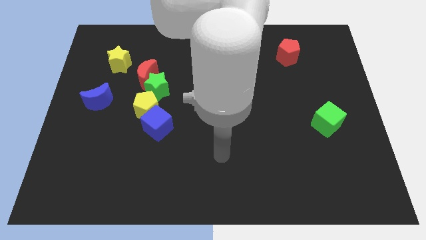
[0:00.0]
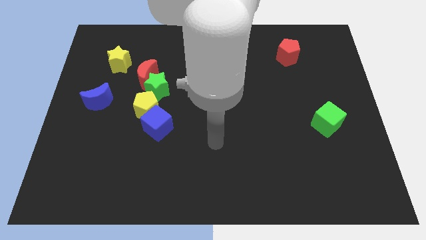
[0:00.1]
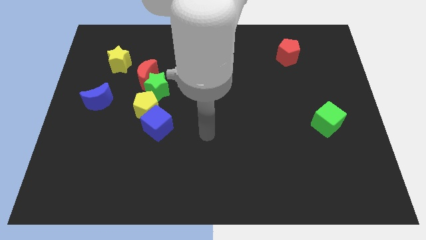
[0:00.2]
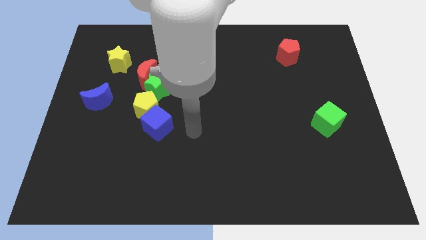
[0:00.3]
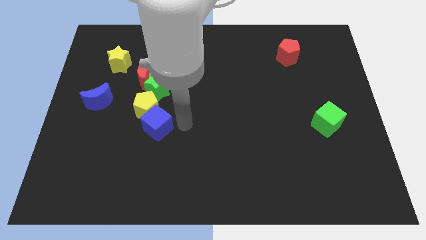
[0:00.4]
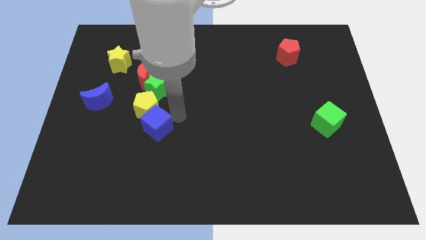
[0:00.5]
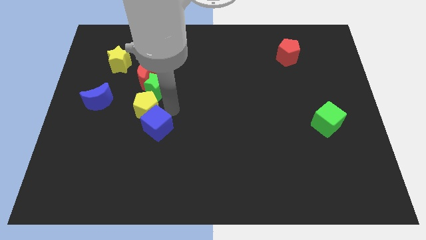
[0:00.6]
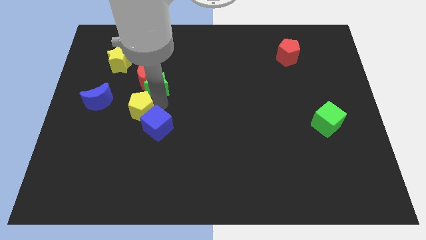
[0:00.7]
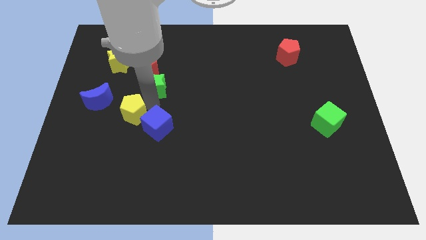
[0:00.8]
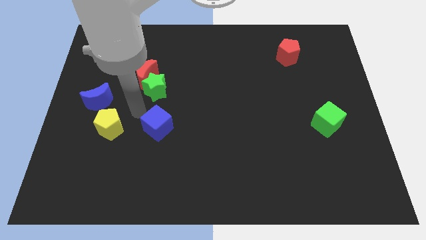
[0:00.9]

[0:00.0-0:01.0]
move the blue cube away from the yellow pentagon

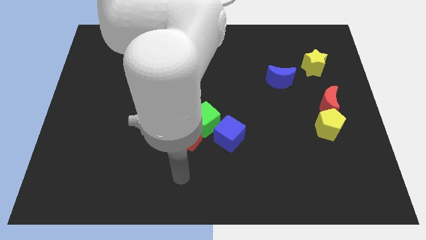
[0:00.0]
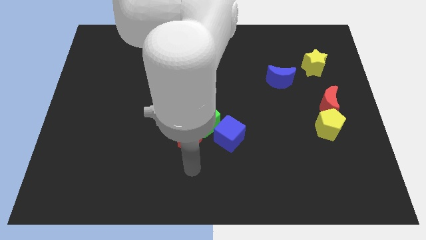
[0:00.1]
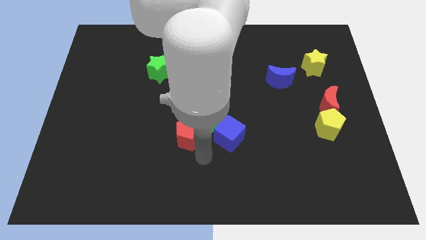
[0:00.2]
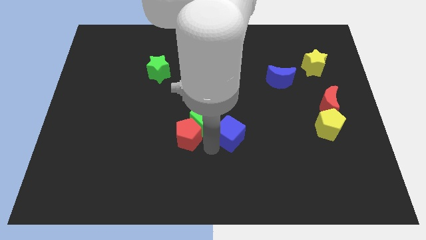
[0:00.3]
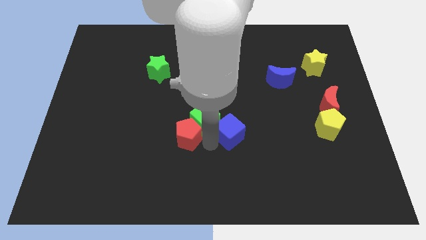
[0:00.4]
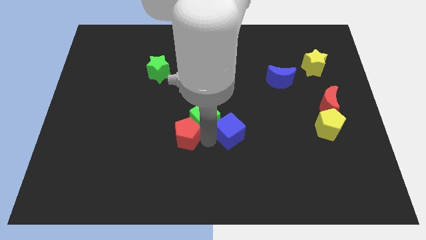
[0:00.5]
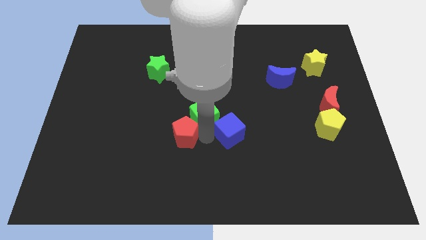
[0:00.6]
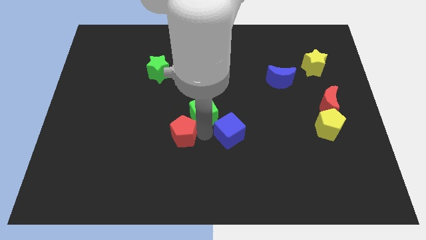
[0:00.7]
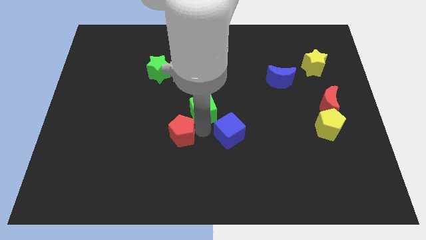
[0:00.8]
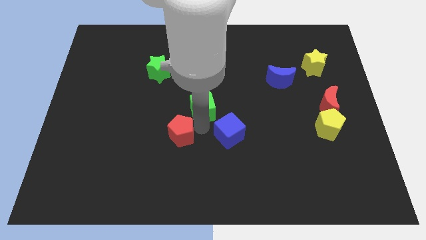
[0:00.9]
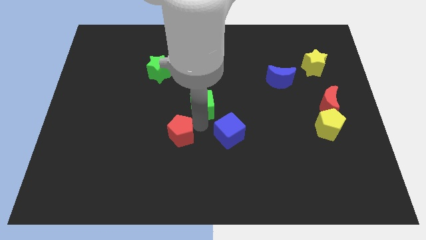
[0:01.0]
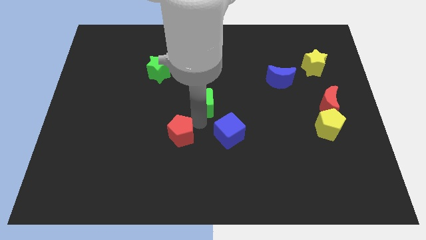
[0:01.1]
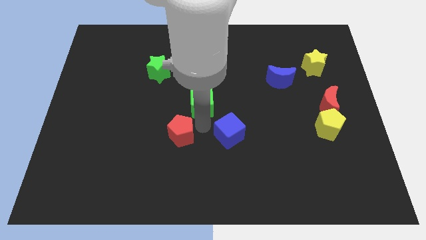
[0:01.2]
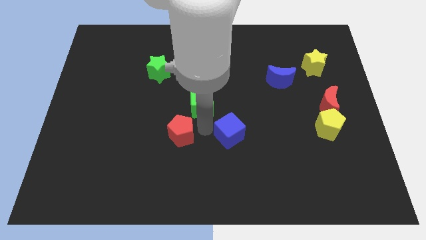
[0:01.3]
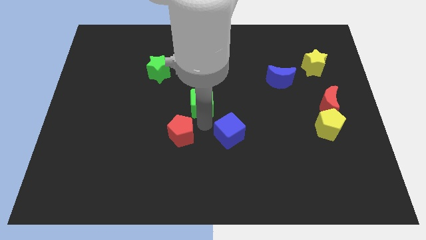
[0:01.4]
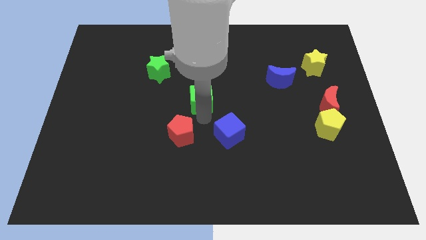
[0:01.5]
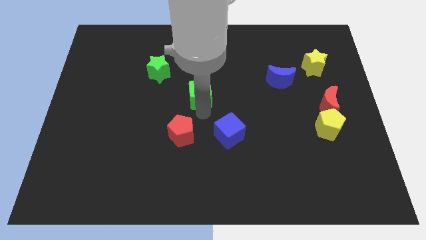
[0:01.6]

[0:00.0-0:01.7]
pull the green cube apart from the red pentagon and blue cube

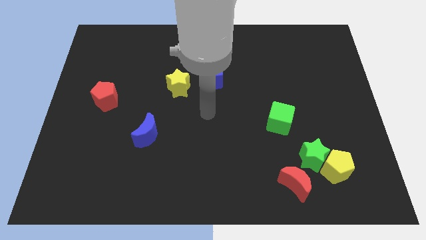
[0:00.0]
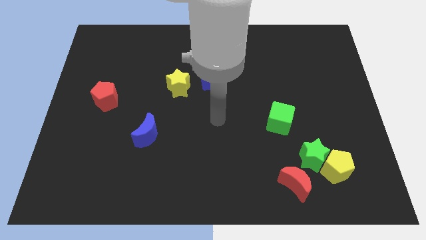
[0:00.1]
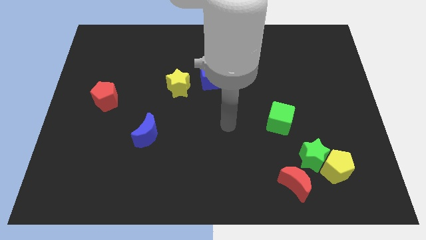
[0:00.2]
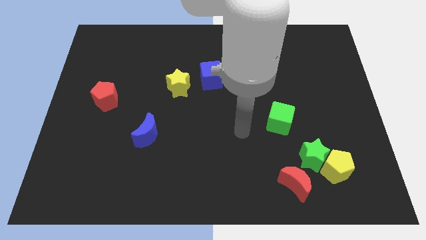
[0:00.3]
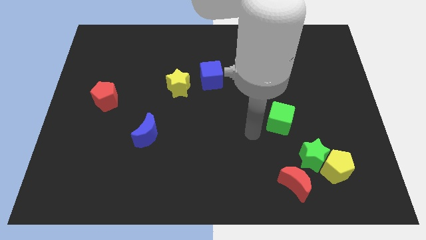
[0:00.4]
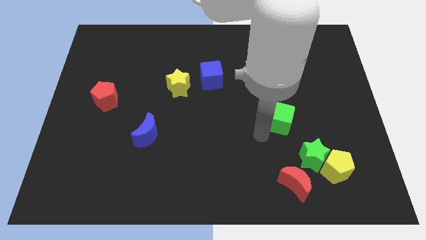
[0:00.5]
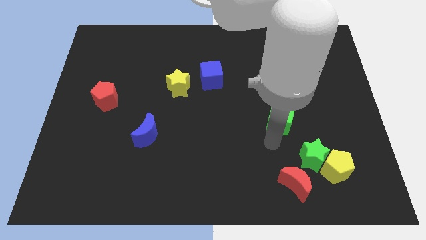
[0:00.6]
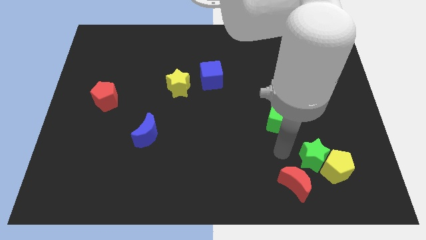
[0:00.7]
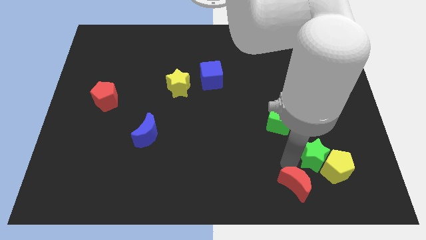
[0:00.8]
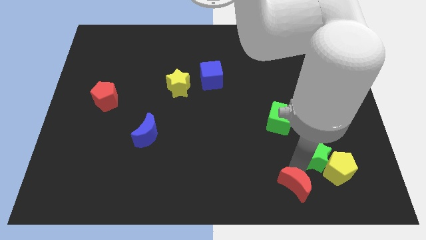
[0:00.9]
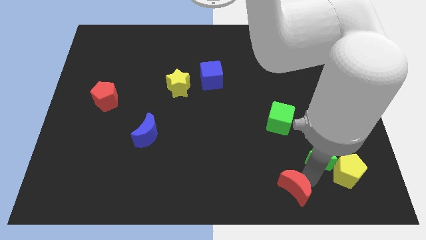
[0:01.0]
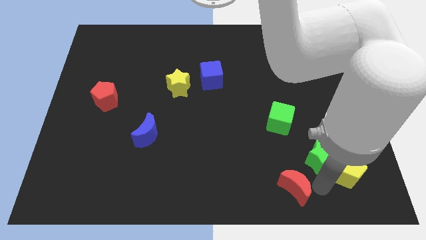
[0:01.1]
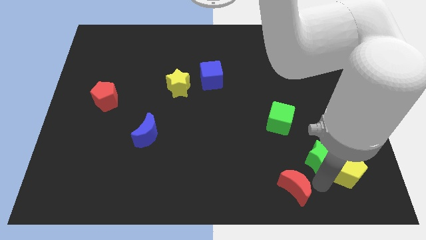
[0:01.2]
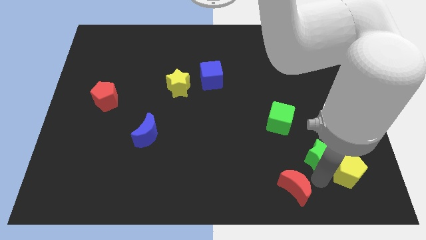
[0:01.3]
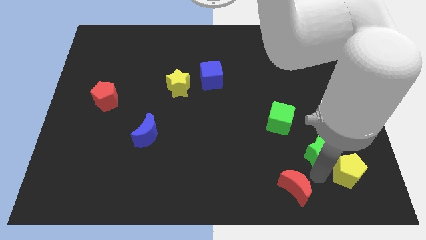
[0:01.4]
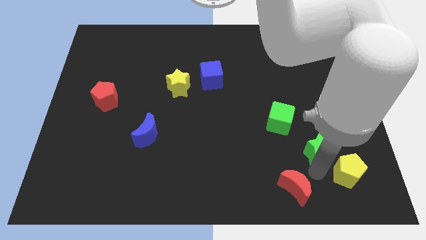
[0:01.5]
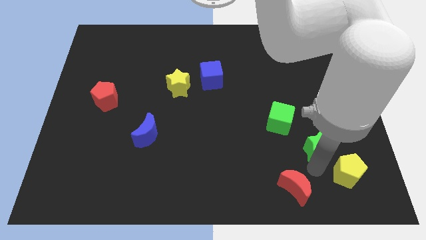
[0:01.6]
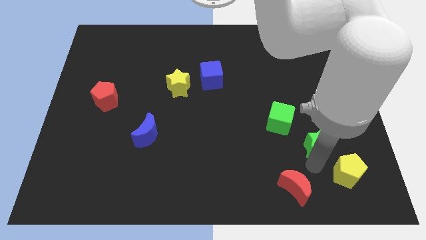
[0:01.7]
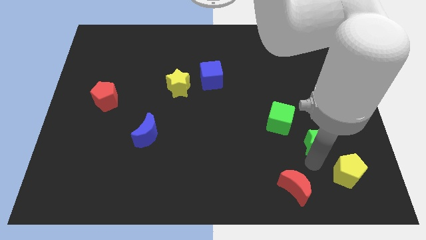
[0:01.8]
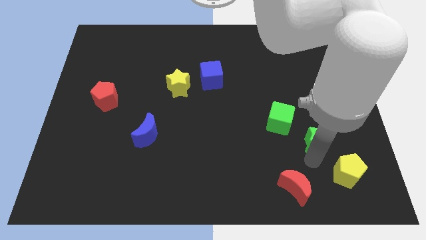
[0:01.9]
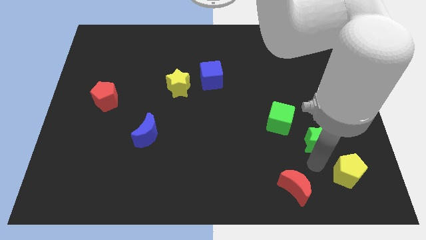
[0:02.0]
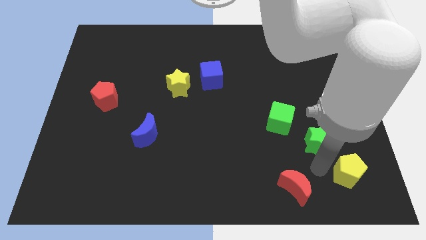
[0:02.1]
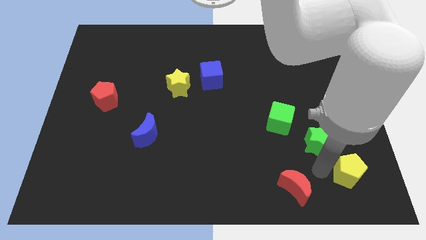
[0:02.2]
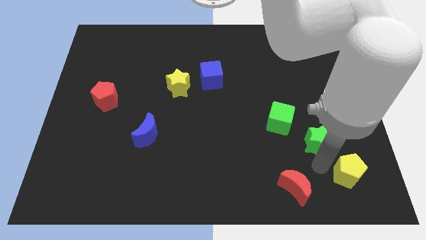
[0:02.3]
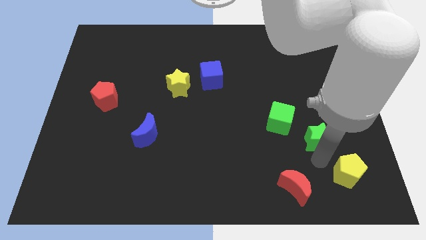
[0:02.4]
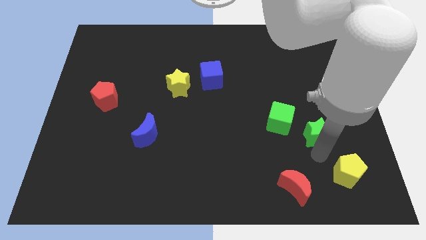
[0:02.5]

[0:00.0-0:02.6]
pull the green star apart from the yellow pentagon and red moon

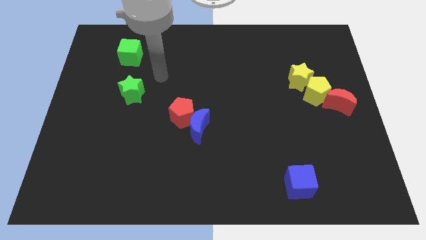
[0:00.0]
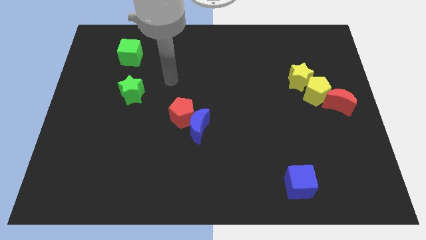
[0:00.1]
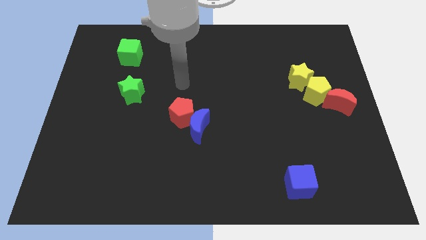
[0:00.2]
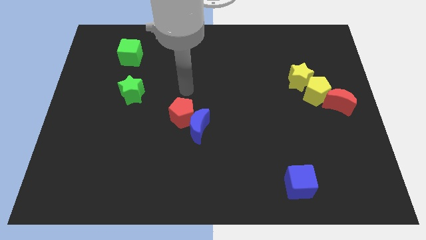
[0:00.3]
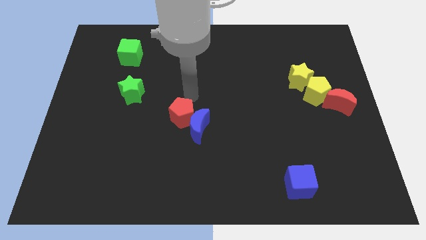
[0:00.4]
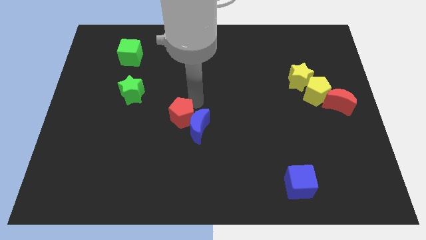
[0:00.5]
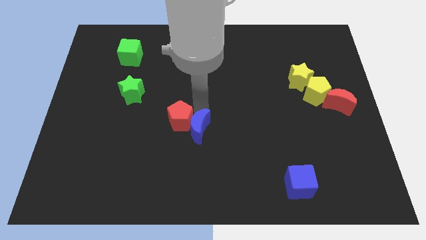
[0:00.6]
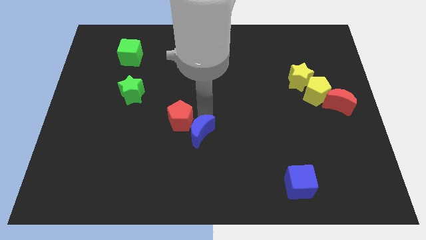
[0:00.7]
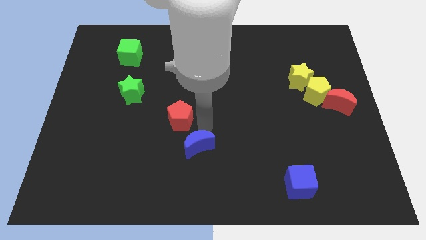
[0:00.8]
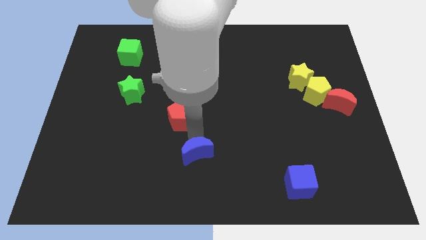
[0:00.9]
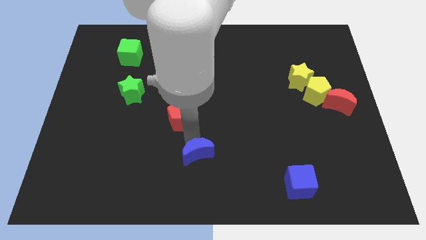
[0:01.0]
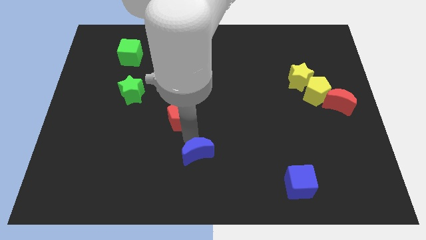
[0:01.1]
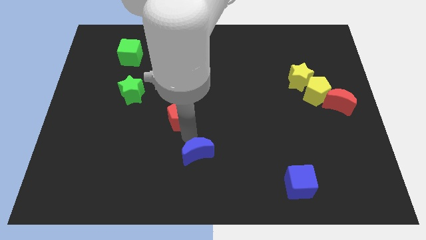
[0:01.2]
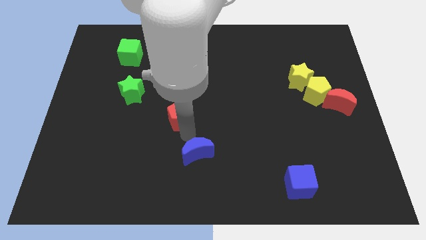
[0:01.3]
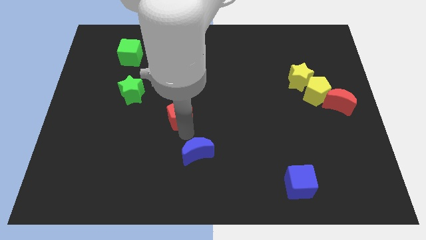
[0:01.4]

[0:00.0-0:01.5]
move the red pentagon away from the blue moon

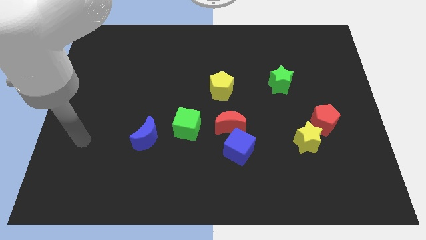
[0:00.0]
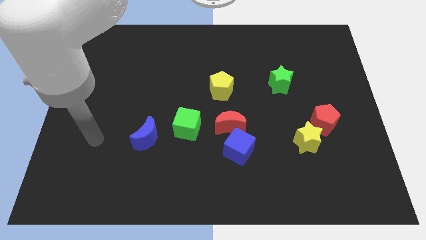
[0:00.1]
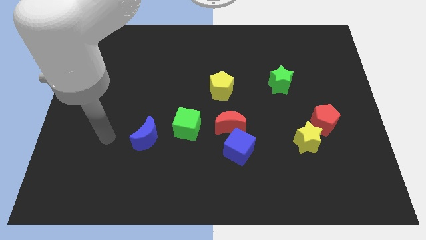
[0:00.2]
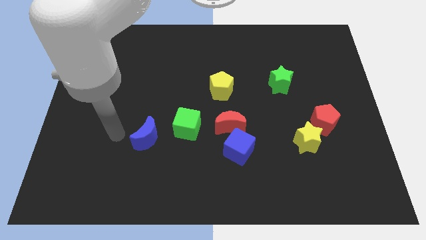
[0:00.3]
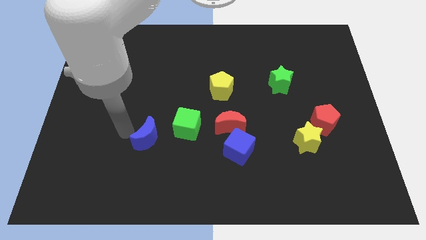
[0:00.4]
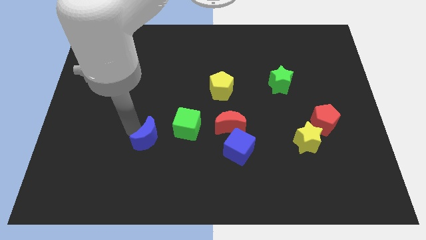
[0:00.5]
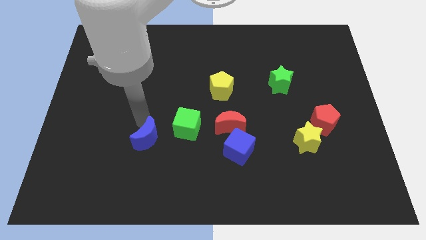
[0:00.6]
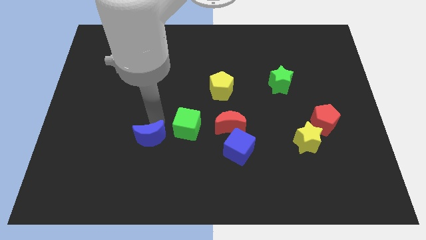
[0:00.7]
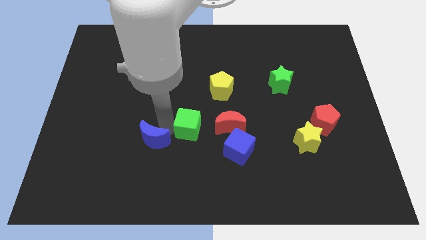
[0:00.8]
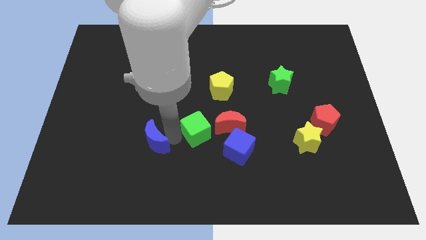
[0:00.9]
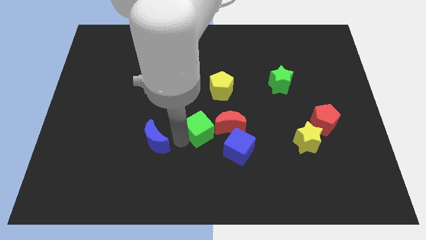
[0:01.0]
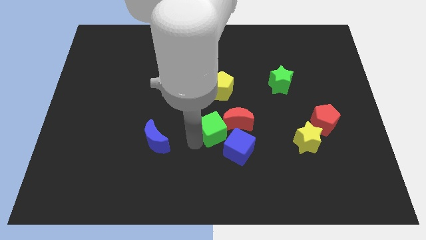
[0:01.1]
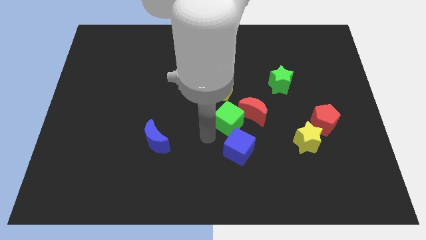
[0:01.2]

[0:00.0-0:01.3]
separate the blue cube from the red moon

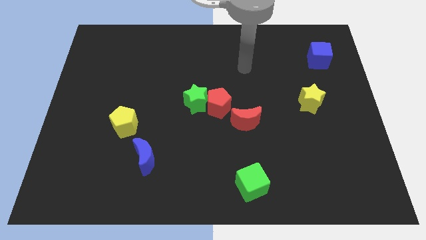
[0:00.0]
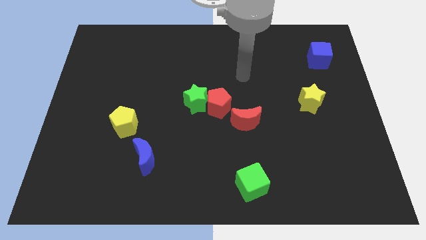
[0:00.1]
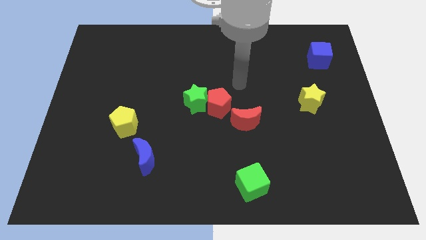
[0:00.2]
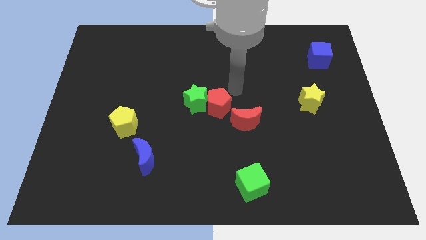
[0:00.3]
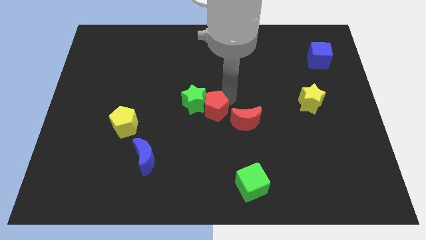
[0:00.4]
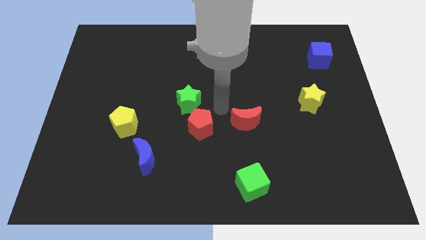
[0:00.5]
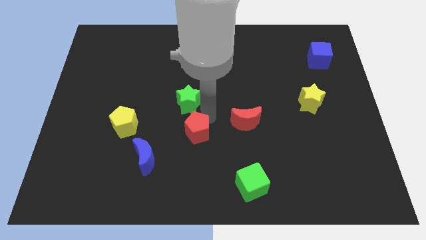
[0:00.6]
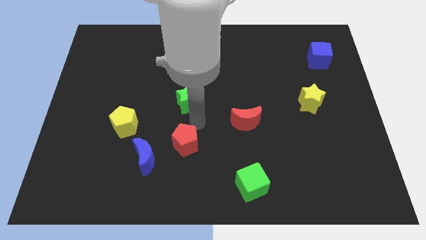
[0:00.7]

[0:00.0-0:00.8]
separate the green star from the red pentagon

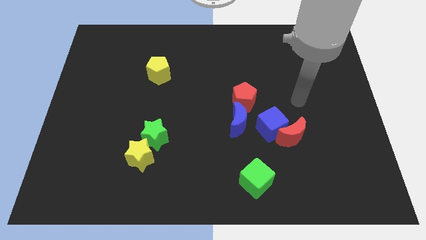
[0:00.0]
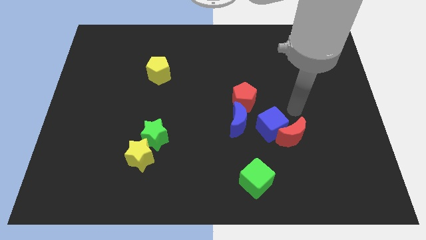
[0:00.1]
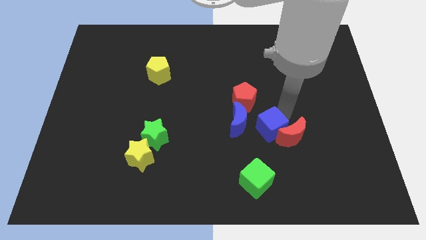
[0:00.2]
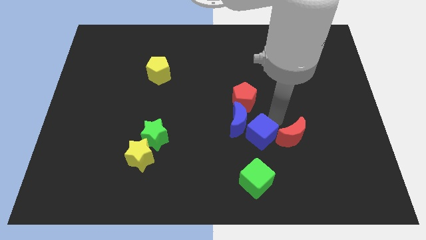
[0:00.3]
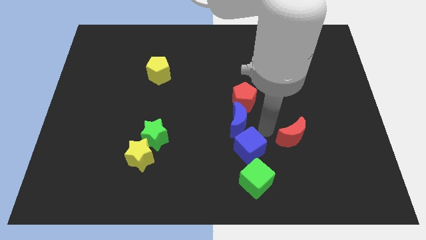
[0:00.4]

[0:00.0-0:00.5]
move the red moon away from the blue cube
